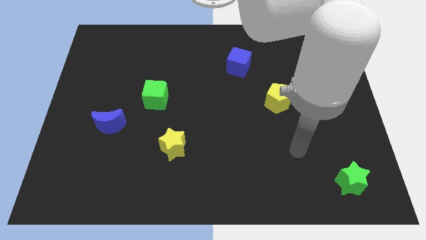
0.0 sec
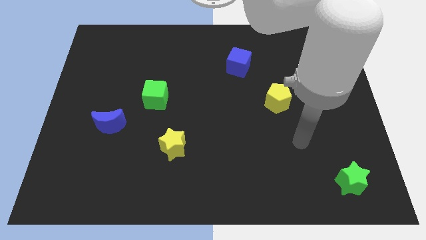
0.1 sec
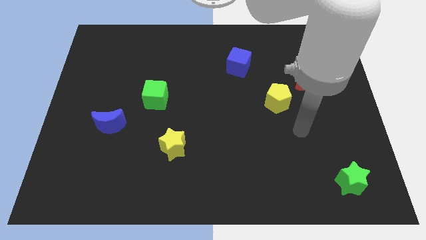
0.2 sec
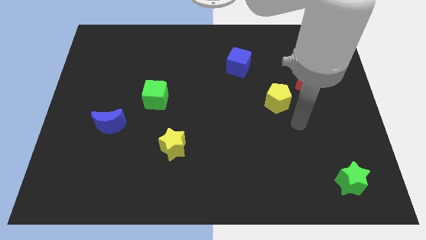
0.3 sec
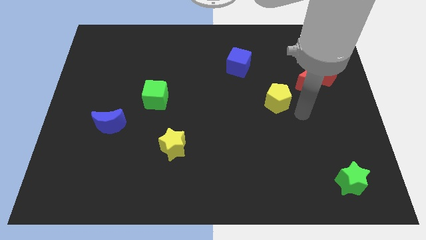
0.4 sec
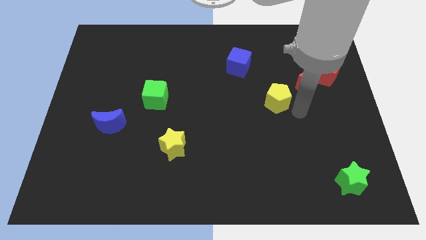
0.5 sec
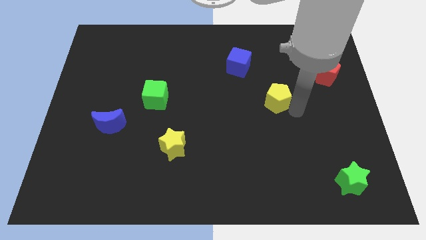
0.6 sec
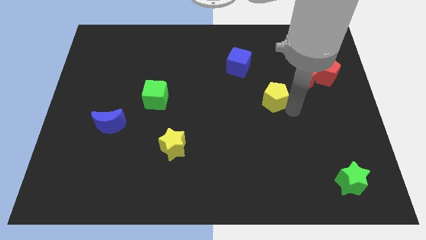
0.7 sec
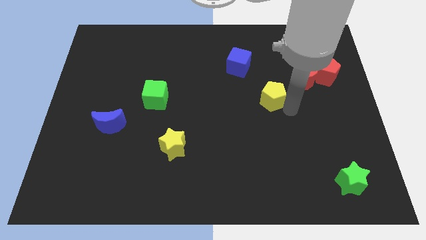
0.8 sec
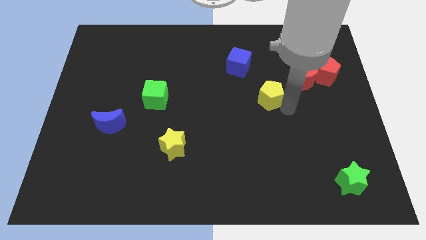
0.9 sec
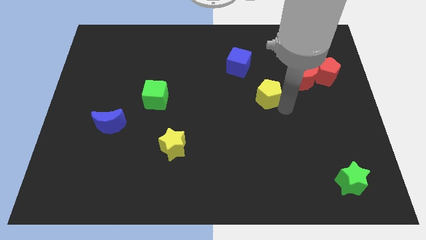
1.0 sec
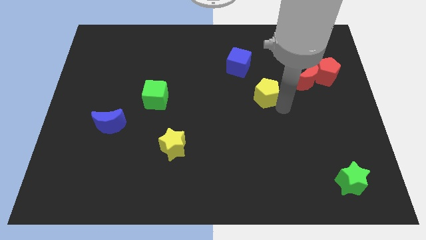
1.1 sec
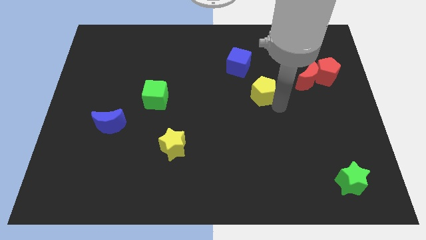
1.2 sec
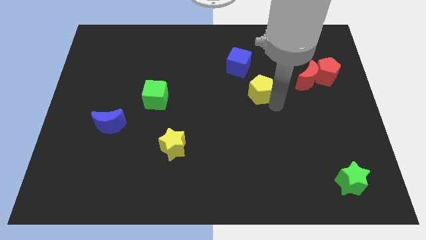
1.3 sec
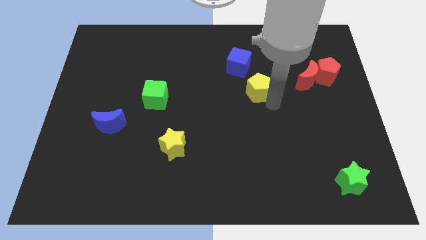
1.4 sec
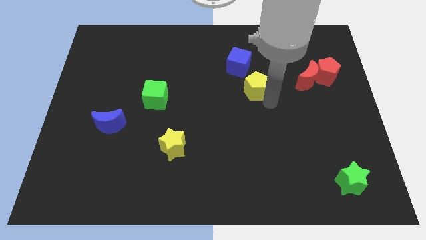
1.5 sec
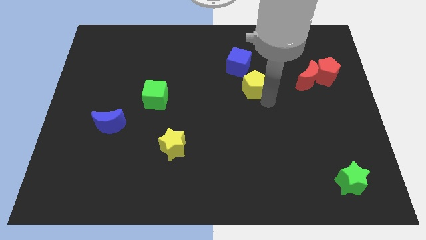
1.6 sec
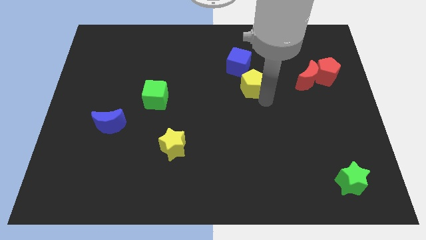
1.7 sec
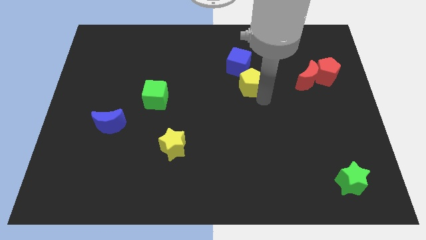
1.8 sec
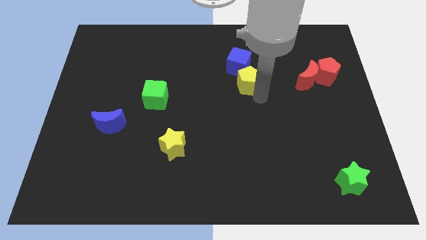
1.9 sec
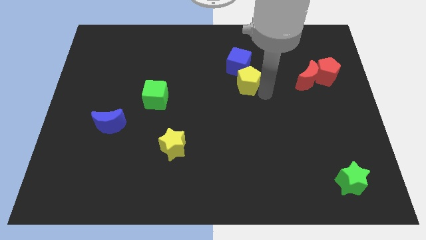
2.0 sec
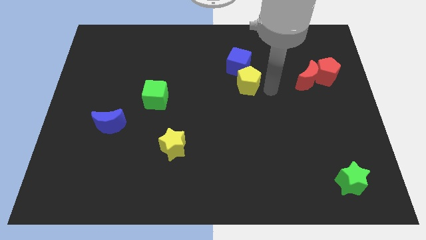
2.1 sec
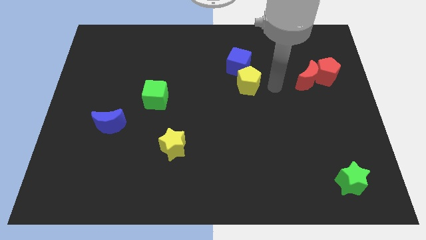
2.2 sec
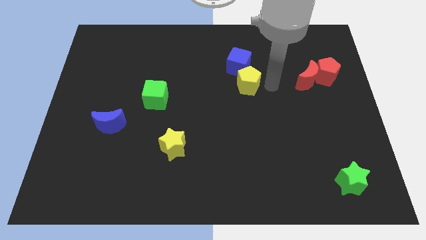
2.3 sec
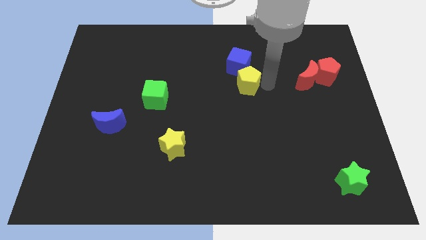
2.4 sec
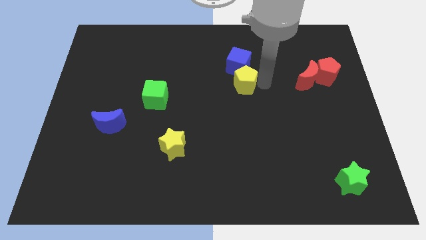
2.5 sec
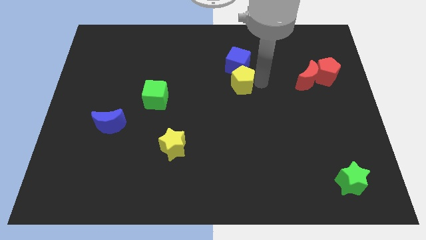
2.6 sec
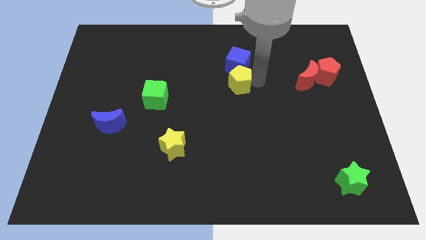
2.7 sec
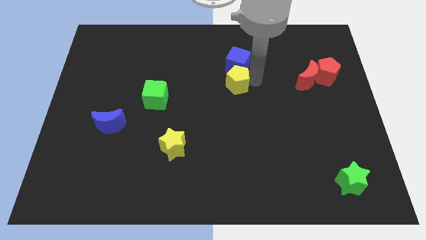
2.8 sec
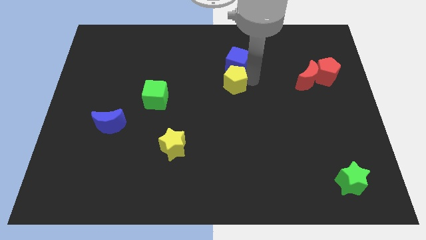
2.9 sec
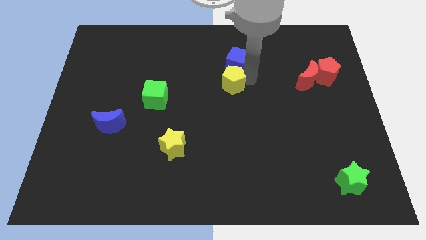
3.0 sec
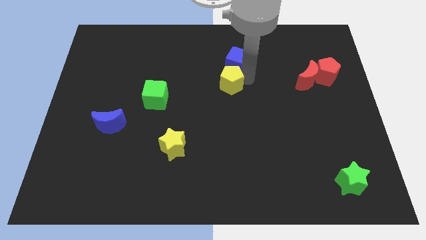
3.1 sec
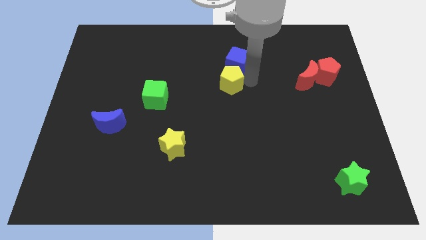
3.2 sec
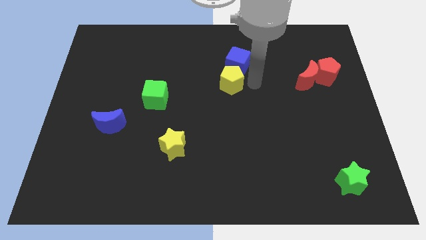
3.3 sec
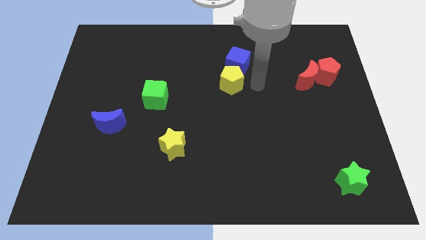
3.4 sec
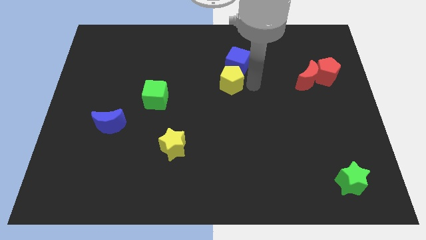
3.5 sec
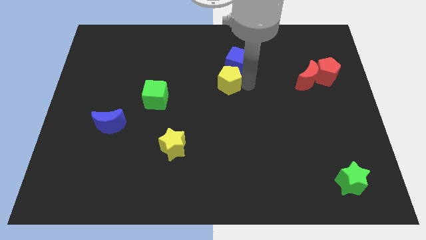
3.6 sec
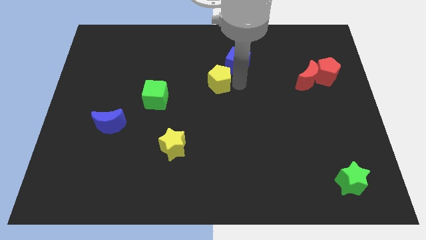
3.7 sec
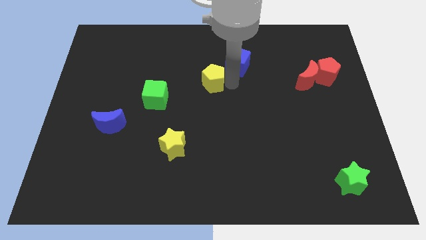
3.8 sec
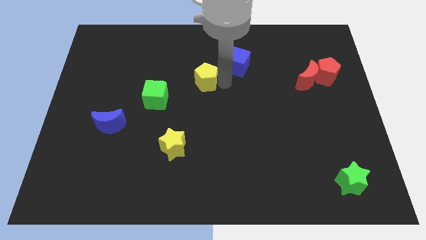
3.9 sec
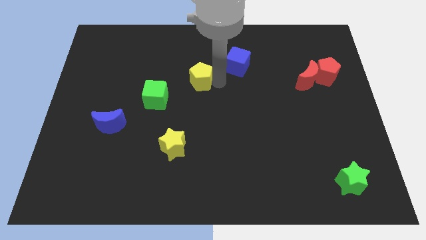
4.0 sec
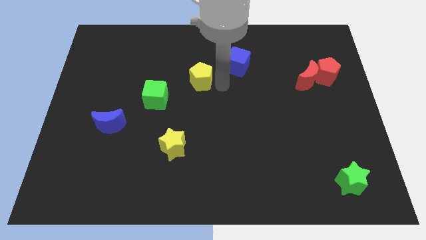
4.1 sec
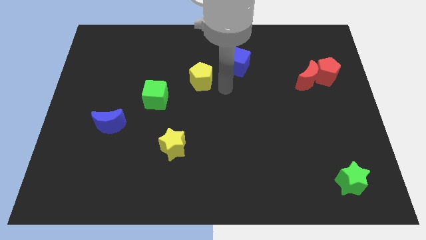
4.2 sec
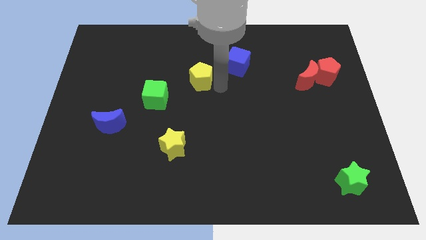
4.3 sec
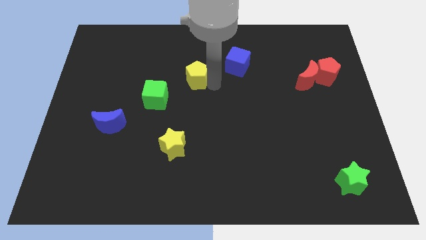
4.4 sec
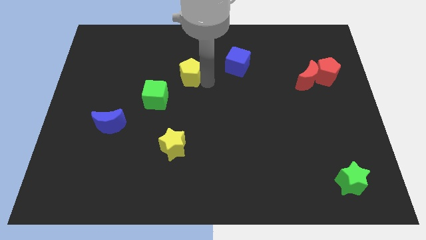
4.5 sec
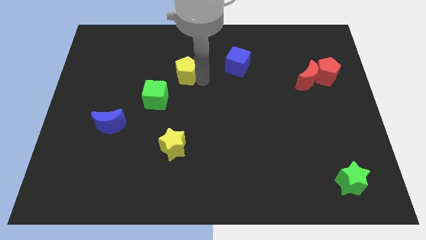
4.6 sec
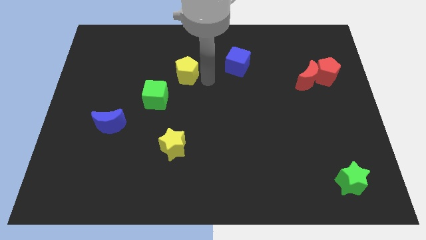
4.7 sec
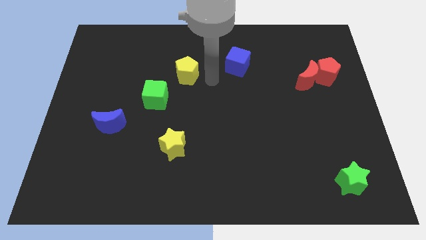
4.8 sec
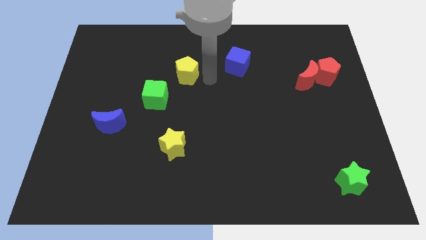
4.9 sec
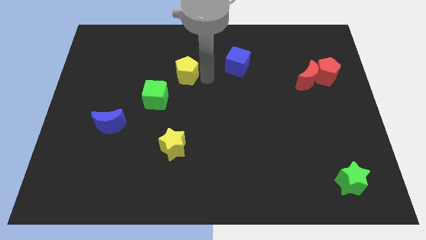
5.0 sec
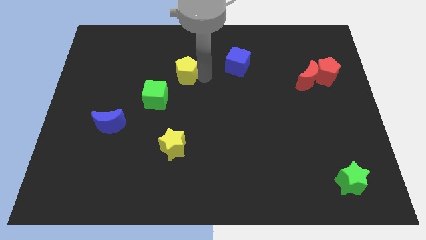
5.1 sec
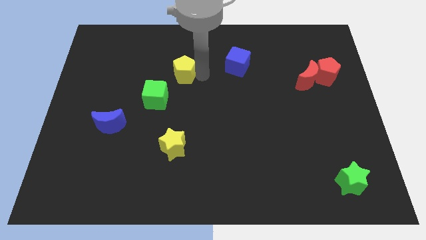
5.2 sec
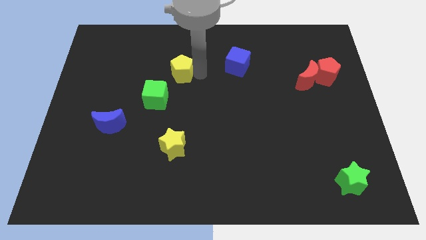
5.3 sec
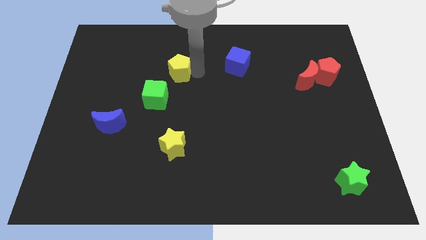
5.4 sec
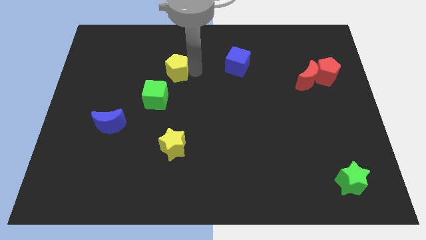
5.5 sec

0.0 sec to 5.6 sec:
push the yellow pentagon above the green cube

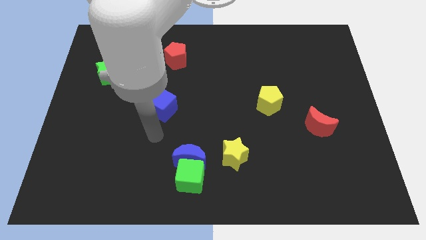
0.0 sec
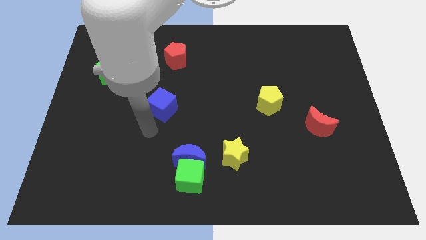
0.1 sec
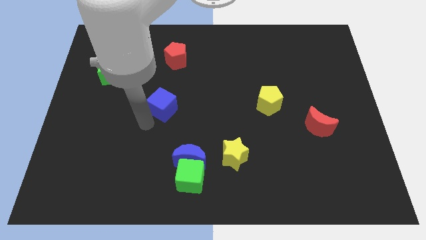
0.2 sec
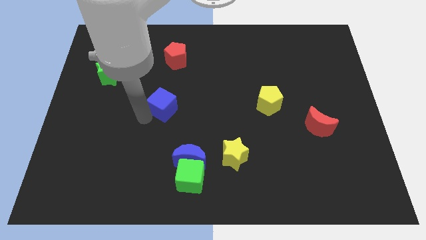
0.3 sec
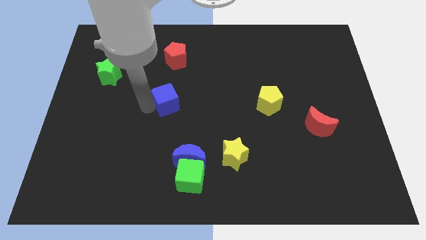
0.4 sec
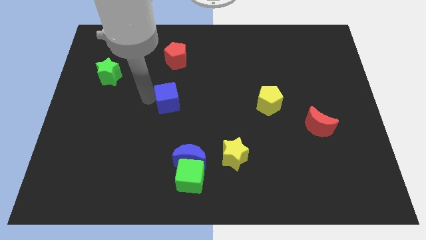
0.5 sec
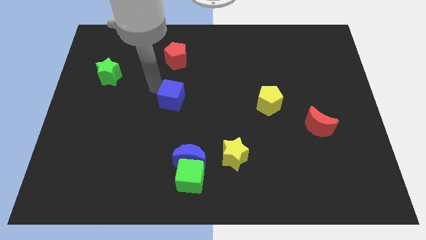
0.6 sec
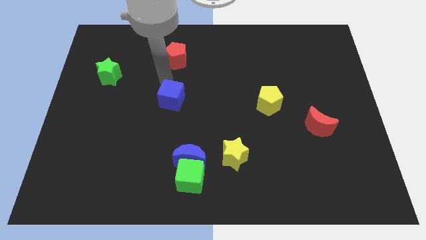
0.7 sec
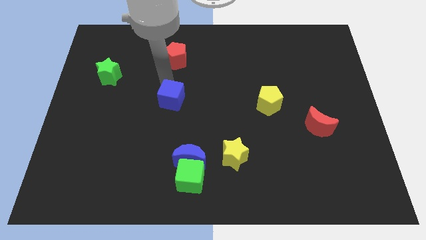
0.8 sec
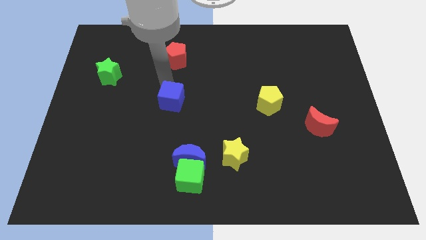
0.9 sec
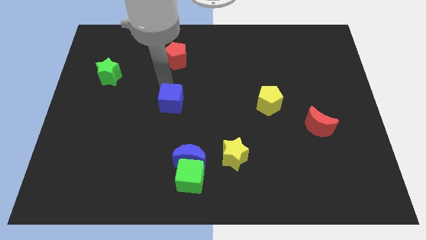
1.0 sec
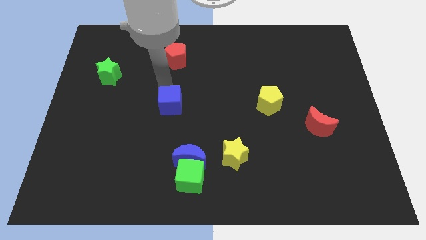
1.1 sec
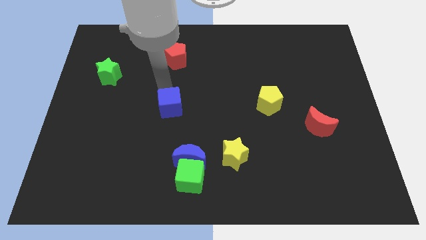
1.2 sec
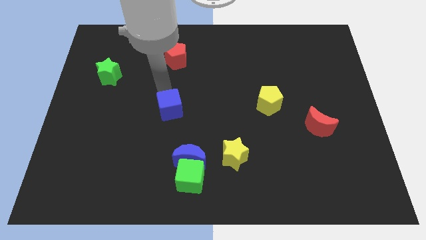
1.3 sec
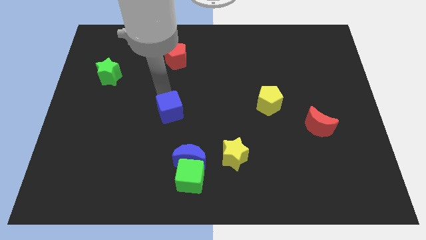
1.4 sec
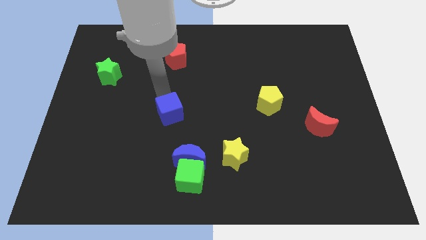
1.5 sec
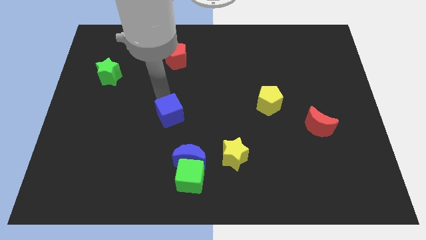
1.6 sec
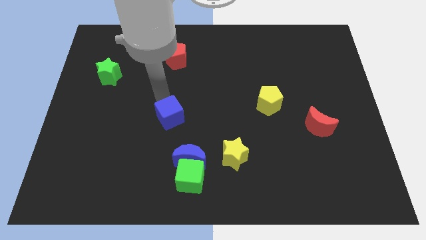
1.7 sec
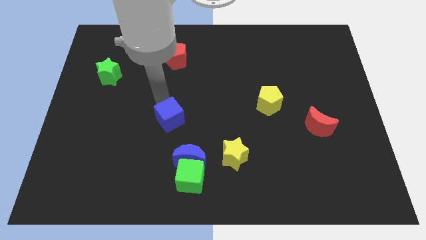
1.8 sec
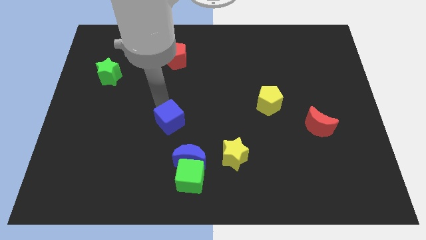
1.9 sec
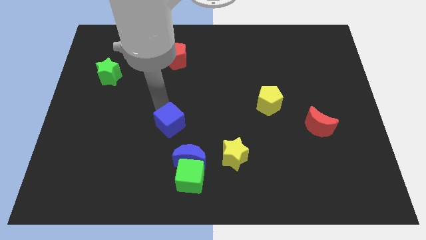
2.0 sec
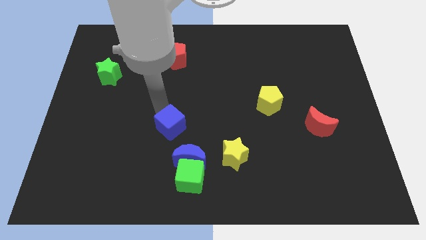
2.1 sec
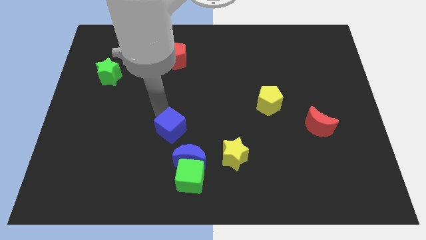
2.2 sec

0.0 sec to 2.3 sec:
put the blue cube above the green cube
